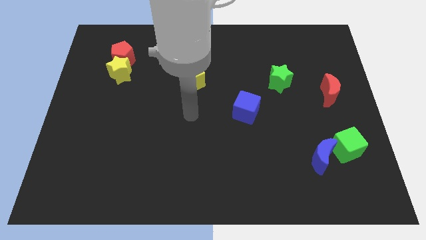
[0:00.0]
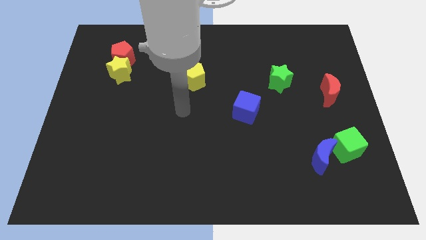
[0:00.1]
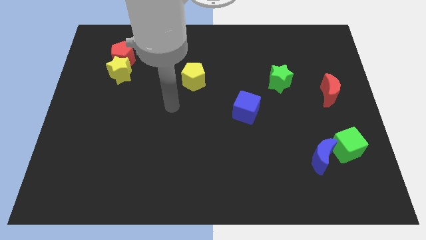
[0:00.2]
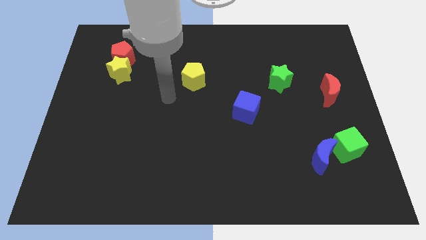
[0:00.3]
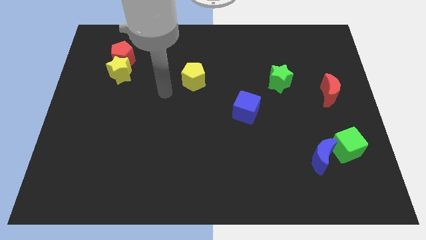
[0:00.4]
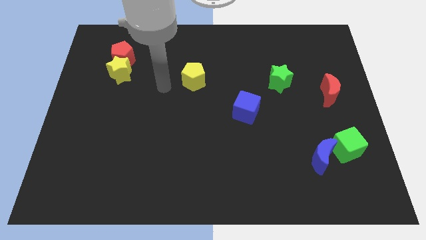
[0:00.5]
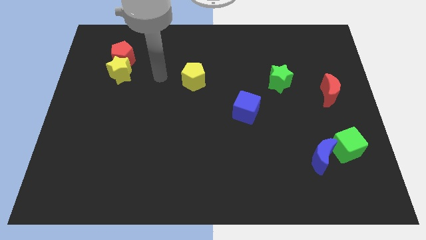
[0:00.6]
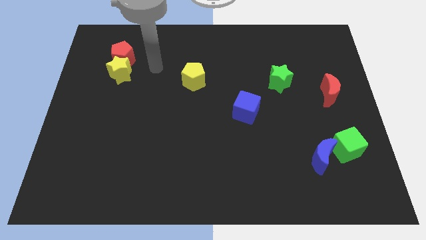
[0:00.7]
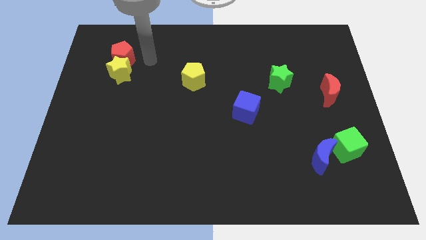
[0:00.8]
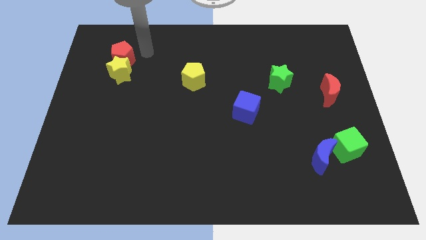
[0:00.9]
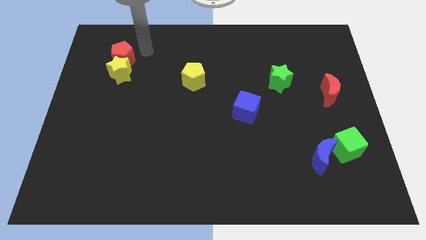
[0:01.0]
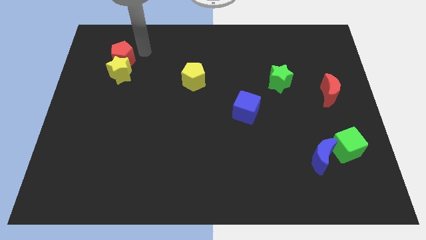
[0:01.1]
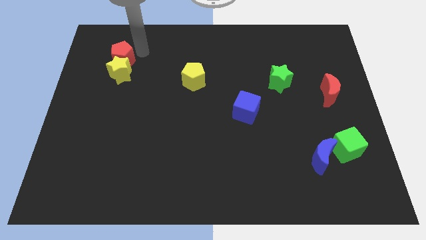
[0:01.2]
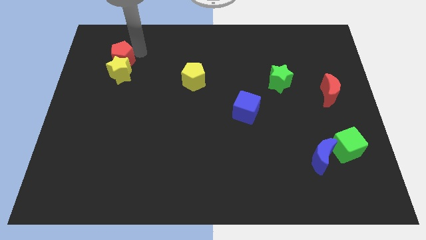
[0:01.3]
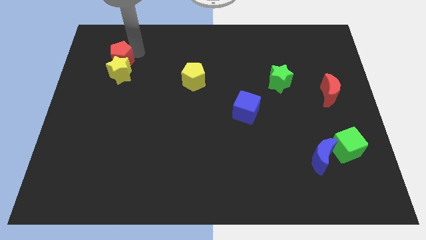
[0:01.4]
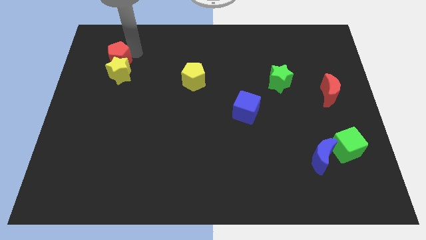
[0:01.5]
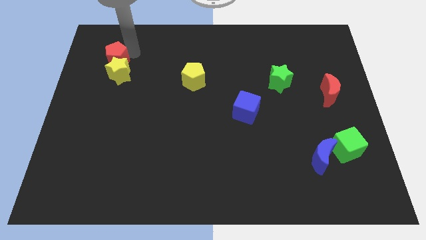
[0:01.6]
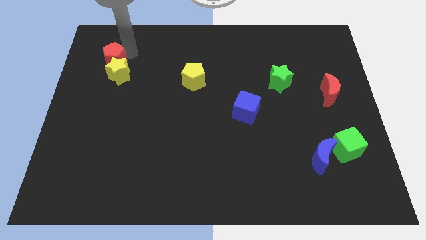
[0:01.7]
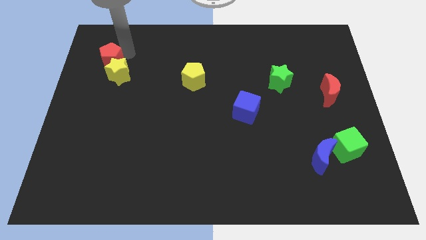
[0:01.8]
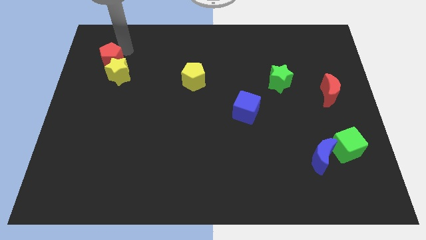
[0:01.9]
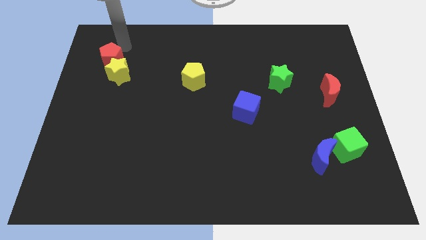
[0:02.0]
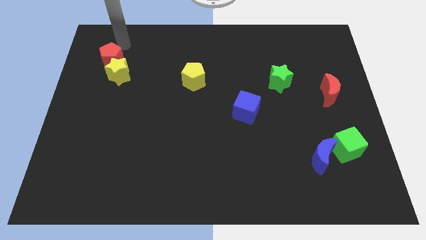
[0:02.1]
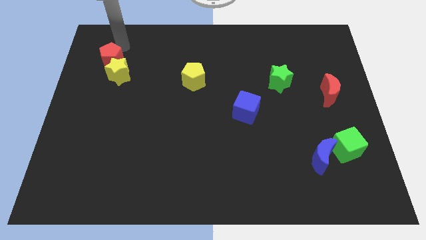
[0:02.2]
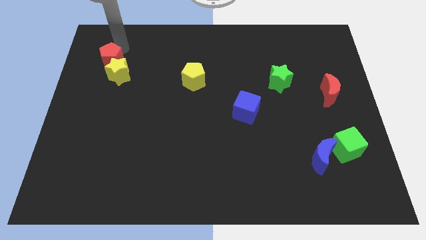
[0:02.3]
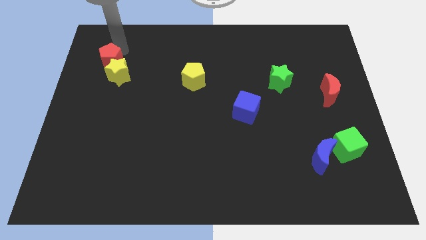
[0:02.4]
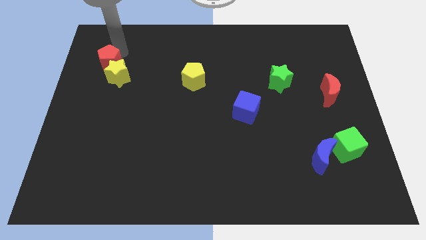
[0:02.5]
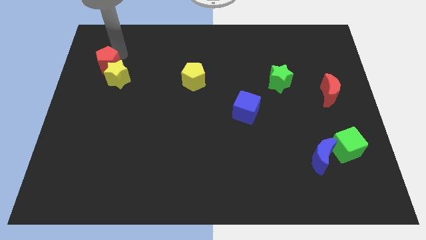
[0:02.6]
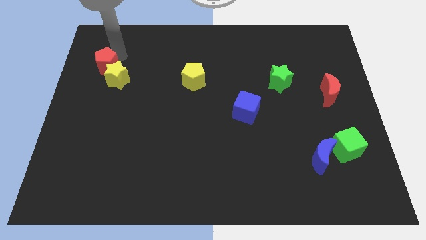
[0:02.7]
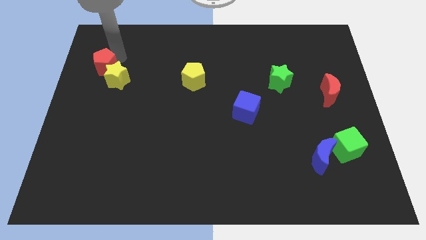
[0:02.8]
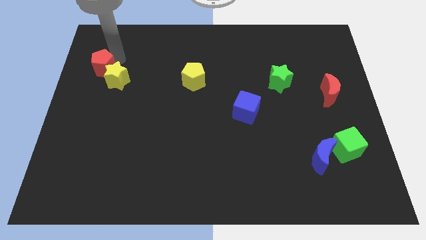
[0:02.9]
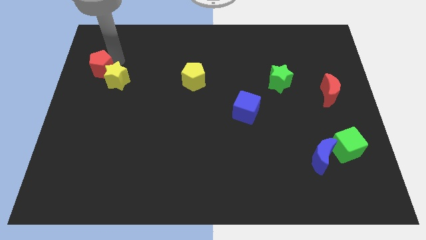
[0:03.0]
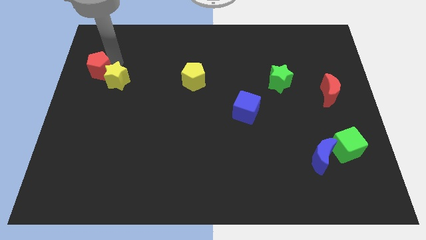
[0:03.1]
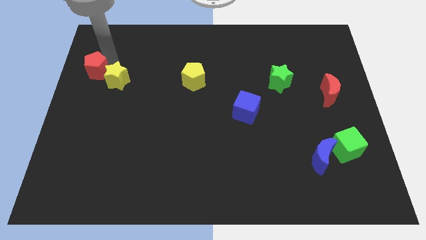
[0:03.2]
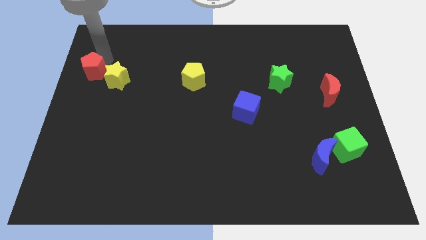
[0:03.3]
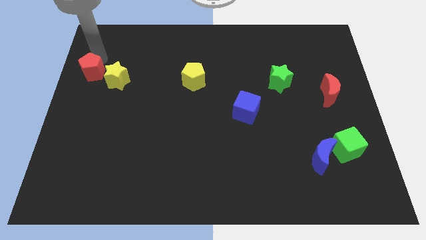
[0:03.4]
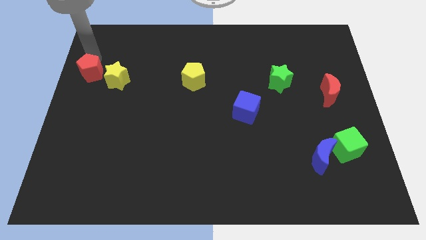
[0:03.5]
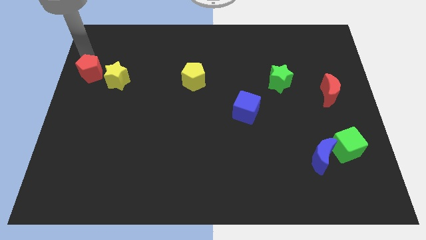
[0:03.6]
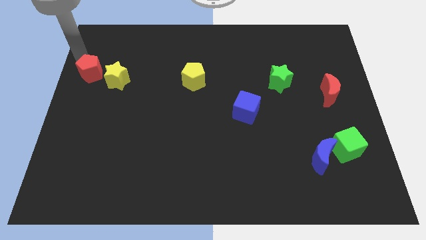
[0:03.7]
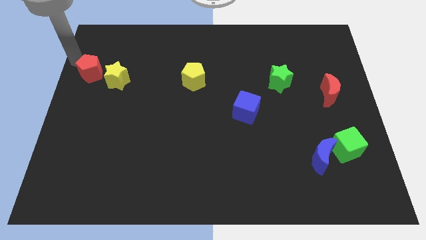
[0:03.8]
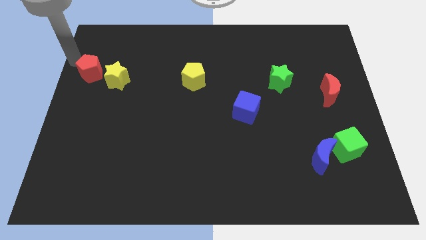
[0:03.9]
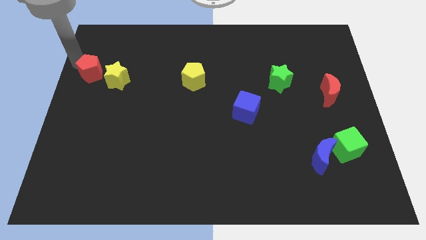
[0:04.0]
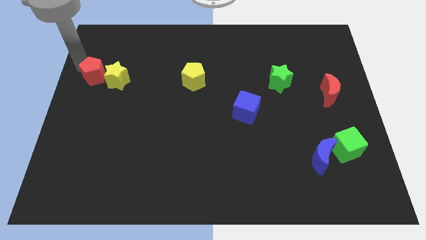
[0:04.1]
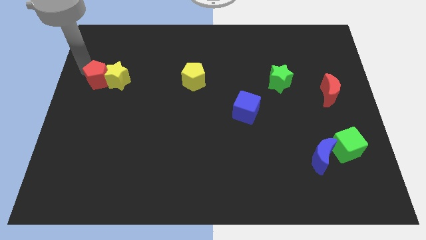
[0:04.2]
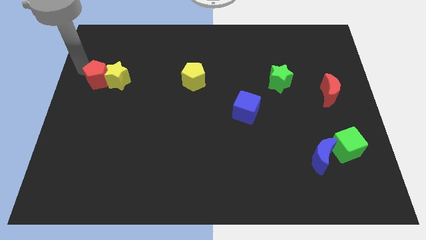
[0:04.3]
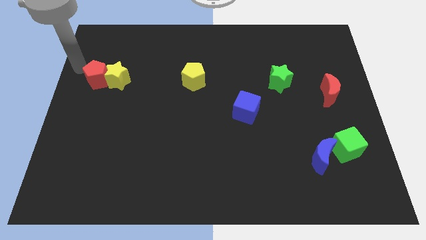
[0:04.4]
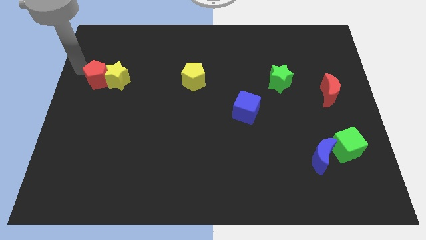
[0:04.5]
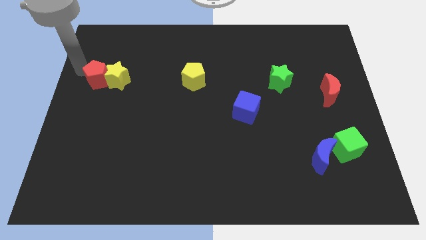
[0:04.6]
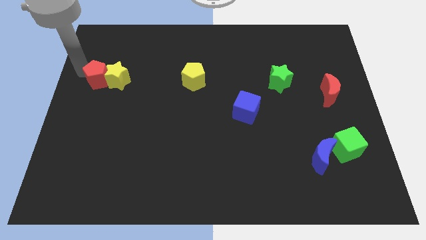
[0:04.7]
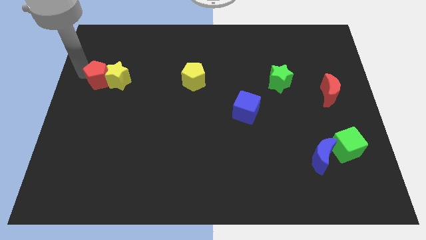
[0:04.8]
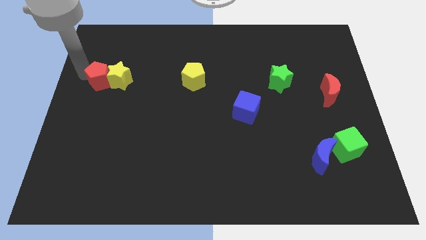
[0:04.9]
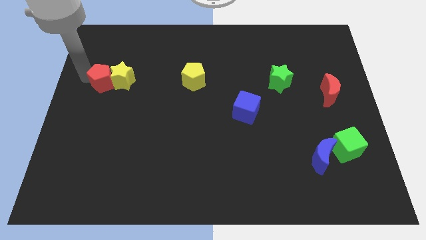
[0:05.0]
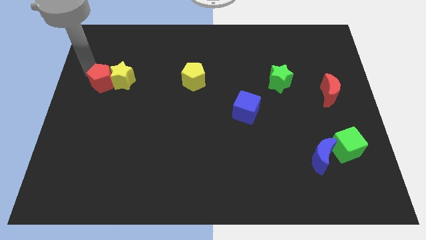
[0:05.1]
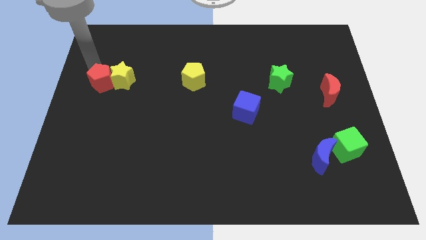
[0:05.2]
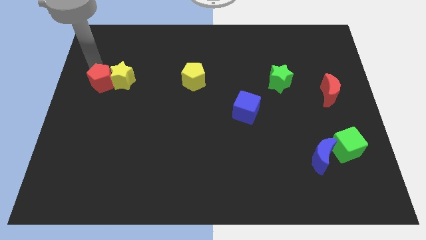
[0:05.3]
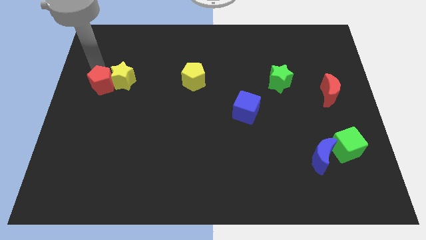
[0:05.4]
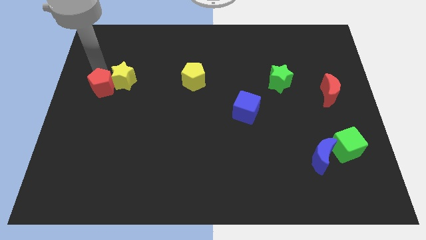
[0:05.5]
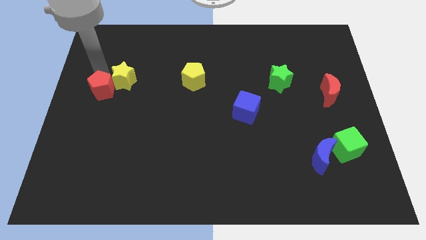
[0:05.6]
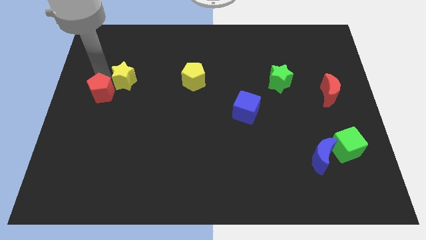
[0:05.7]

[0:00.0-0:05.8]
move the red pentagon to the bottom of the yellow star

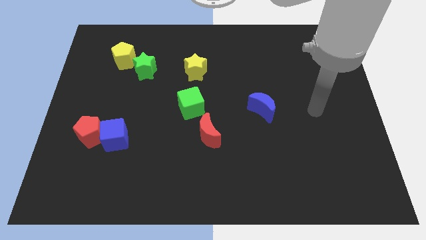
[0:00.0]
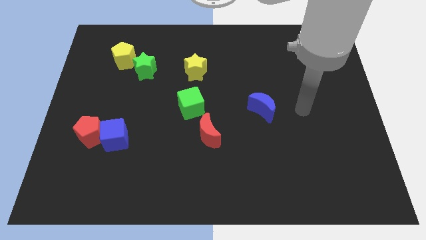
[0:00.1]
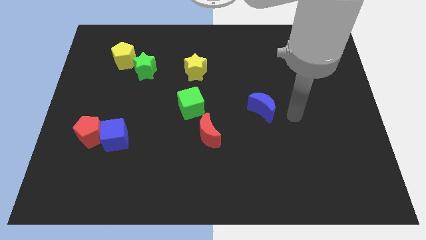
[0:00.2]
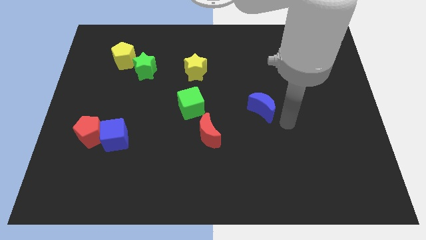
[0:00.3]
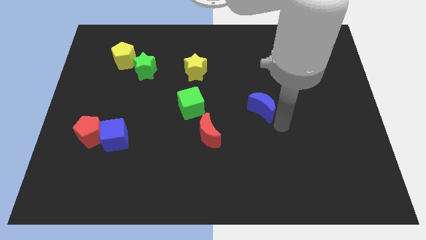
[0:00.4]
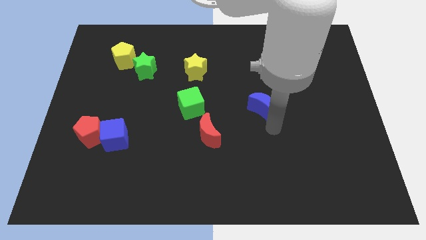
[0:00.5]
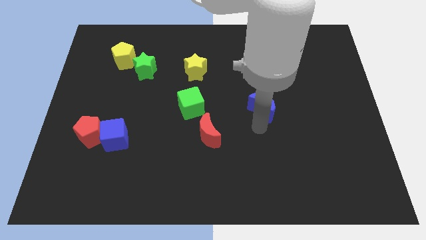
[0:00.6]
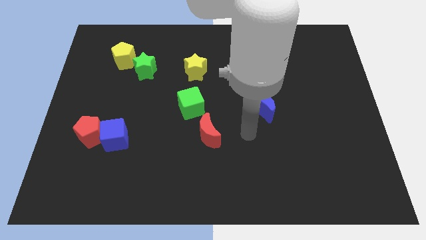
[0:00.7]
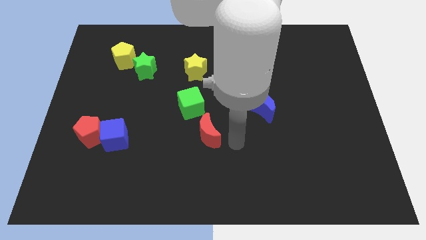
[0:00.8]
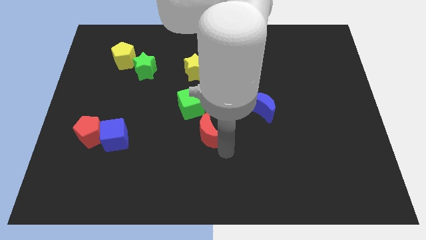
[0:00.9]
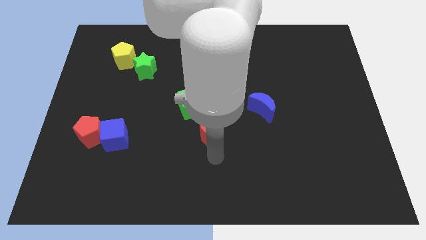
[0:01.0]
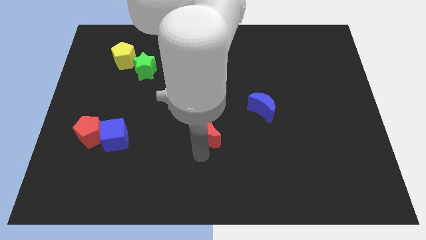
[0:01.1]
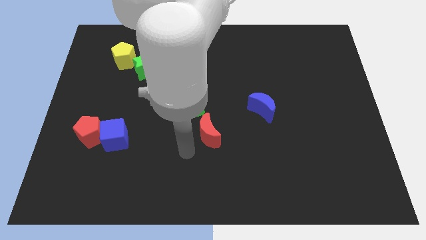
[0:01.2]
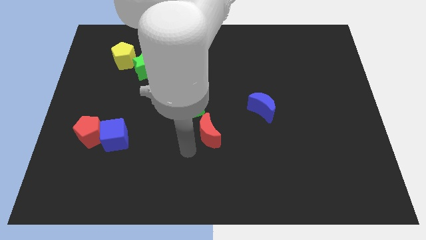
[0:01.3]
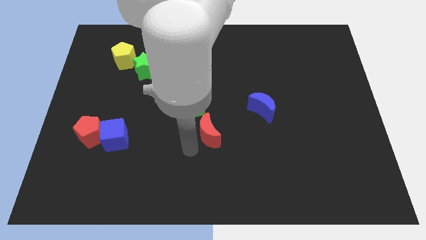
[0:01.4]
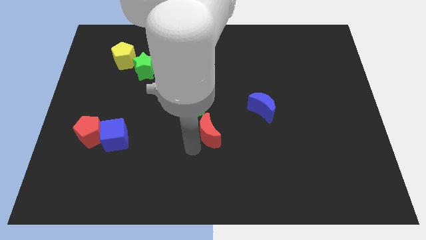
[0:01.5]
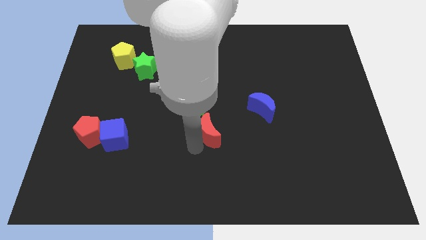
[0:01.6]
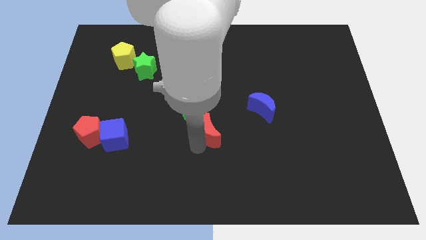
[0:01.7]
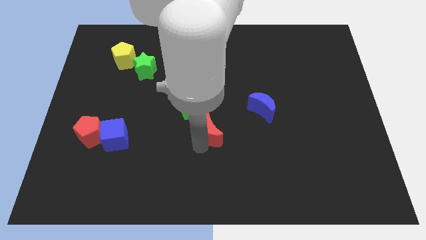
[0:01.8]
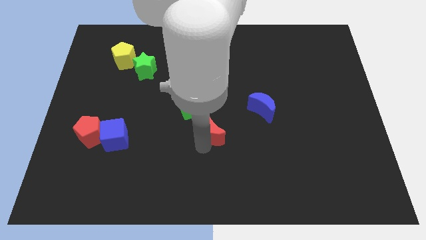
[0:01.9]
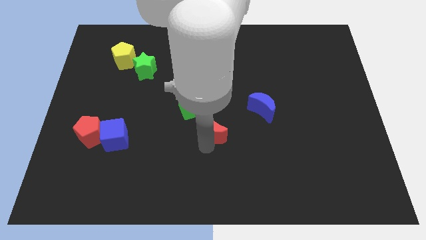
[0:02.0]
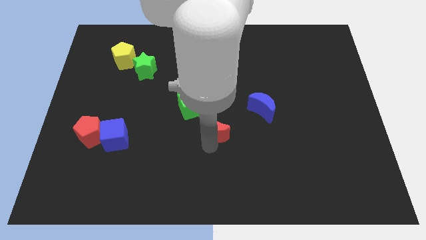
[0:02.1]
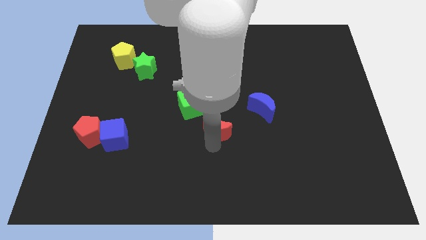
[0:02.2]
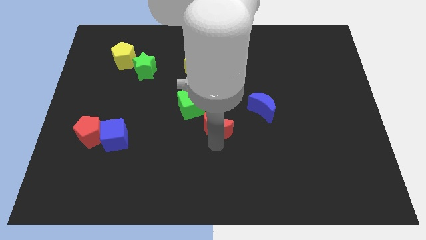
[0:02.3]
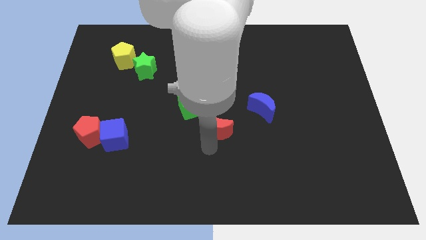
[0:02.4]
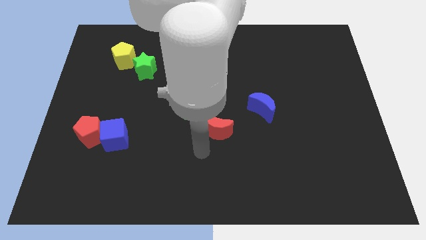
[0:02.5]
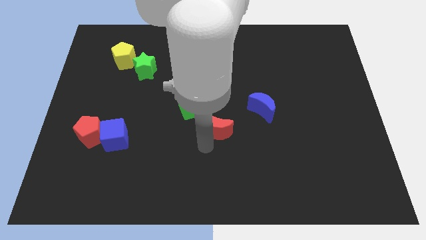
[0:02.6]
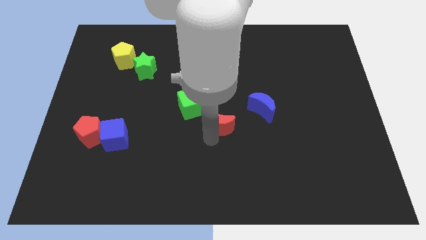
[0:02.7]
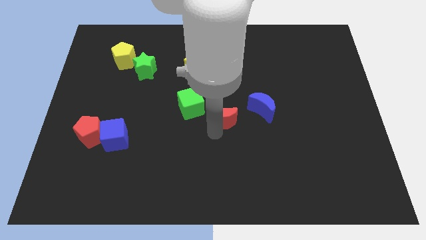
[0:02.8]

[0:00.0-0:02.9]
put the red moon to the right side of the green cube

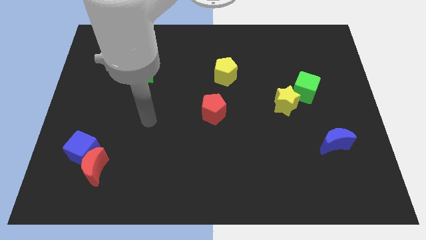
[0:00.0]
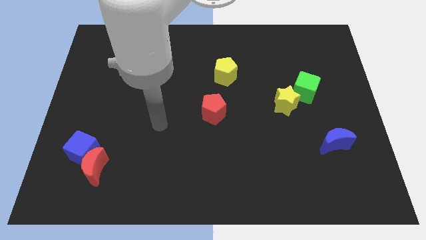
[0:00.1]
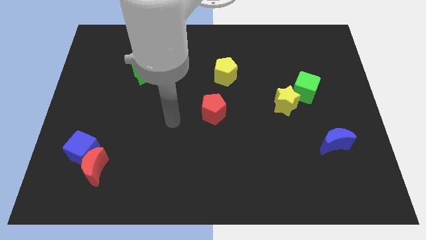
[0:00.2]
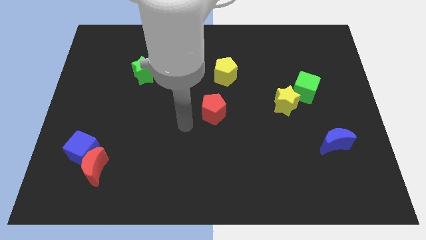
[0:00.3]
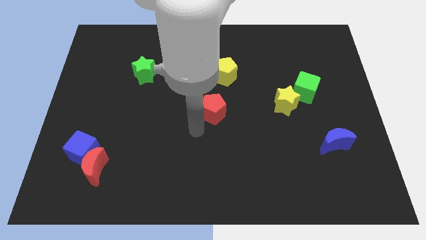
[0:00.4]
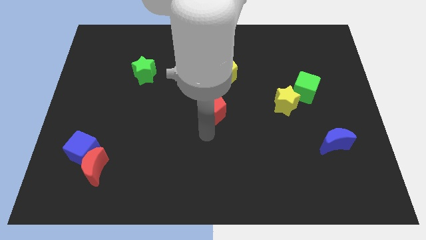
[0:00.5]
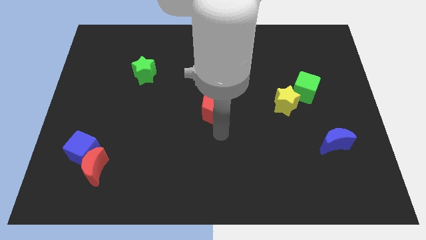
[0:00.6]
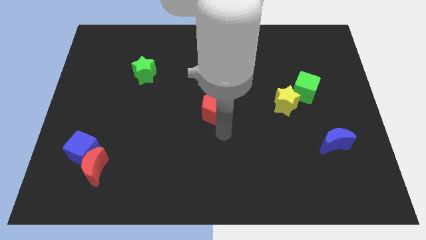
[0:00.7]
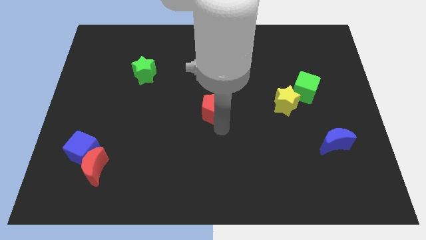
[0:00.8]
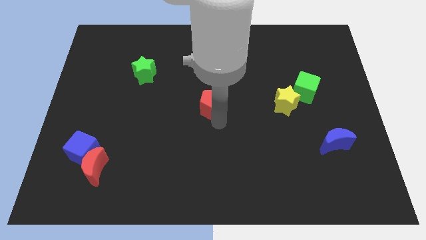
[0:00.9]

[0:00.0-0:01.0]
move the red pentagon to the bottom left side of the yellow pentagon
